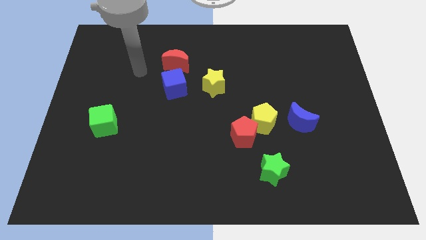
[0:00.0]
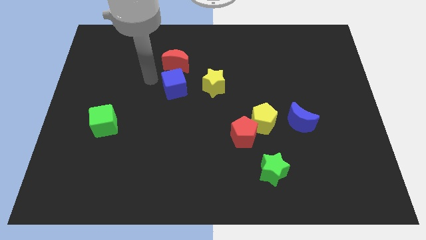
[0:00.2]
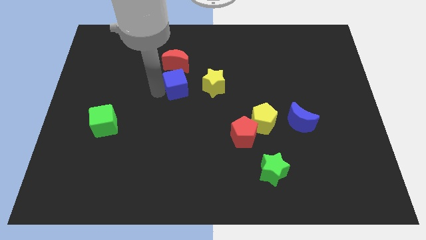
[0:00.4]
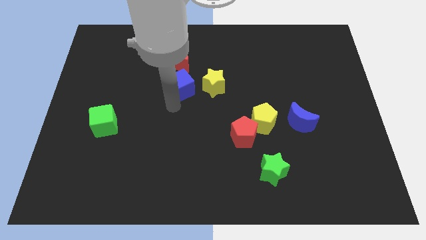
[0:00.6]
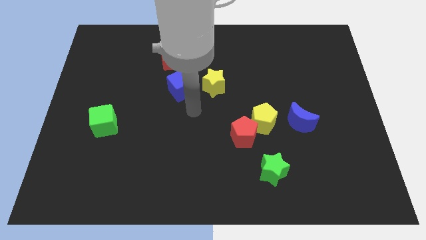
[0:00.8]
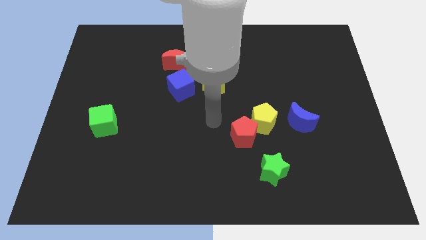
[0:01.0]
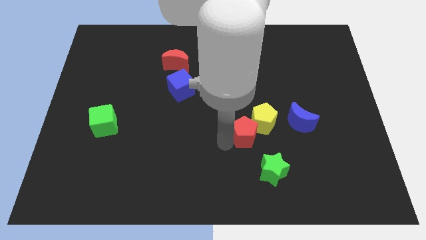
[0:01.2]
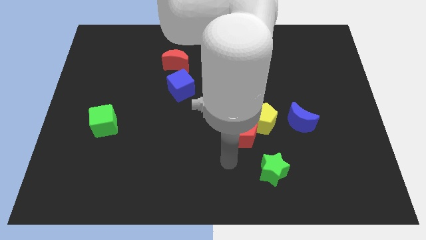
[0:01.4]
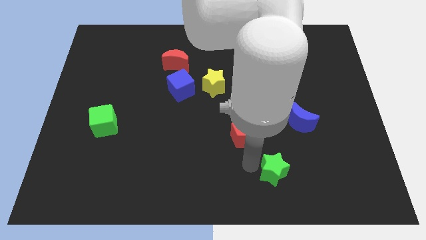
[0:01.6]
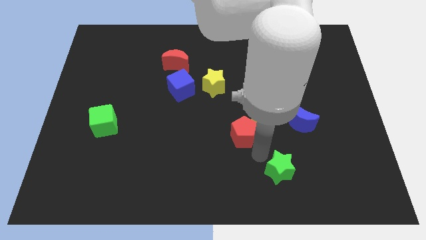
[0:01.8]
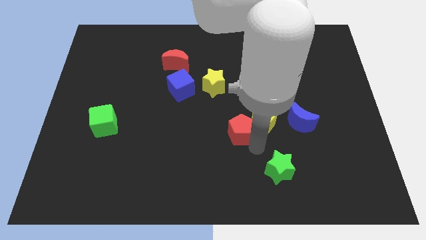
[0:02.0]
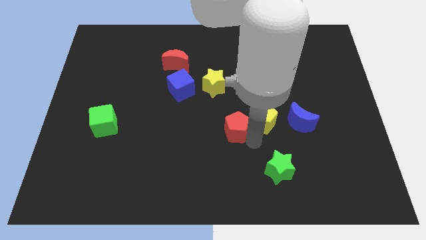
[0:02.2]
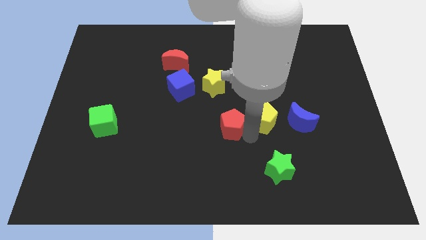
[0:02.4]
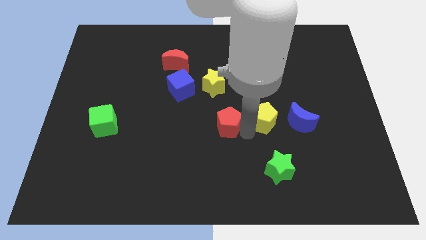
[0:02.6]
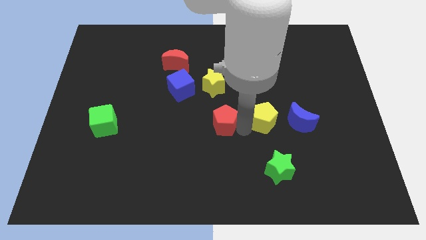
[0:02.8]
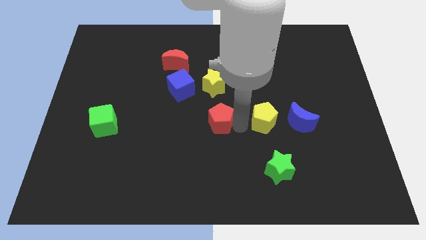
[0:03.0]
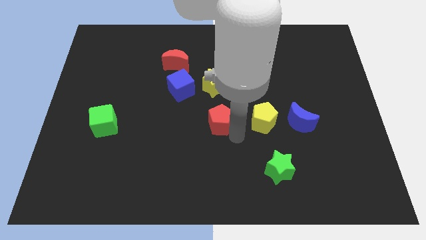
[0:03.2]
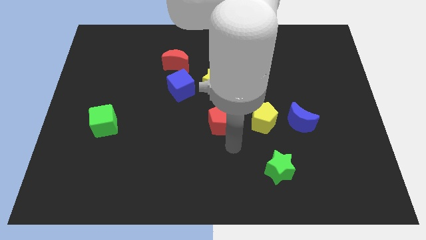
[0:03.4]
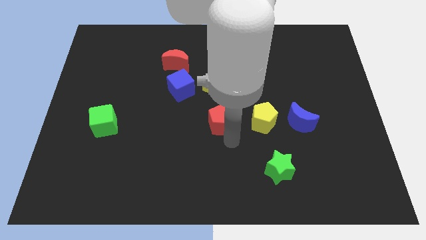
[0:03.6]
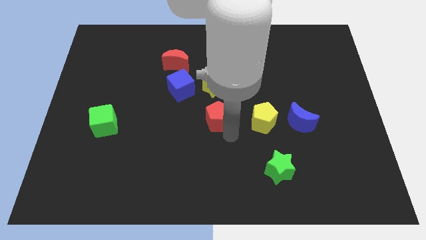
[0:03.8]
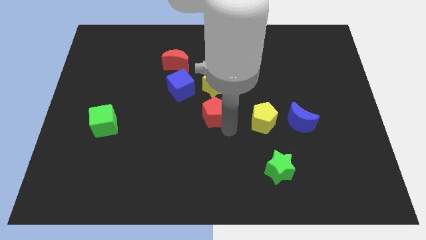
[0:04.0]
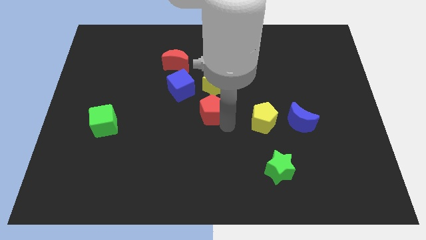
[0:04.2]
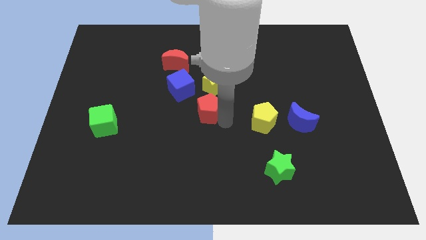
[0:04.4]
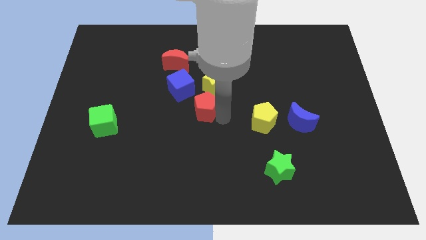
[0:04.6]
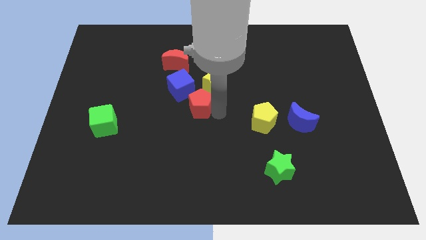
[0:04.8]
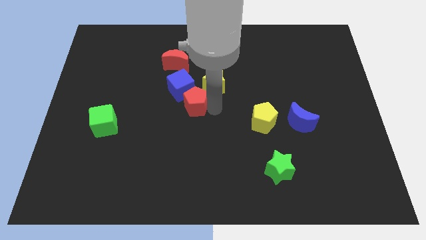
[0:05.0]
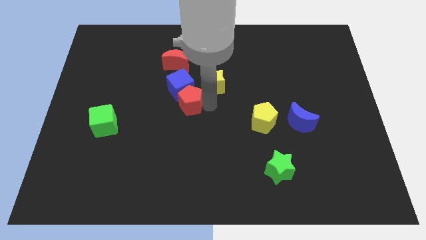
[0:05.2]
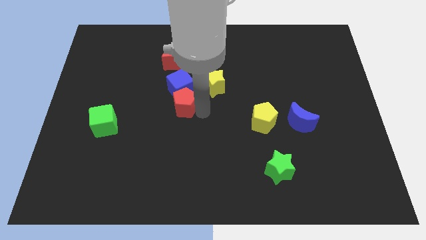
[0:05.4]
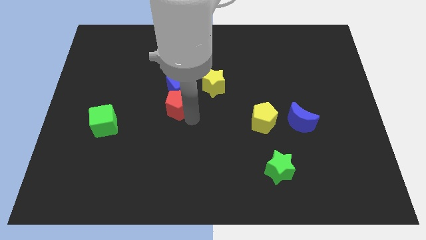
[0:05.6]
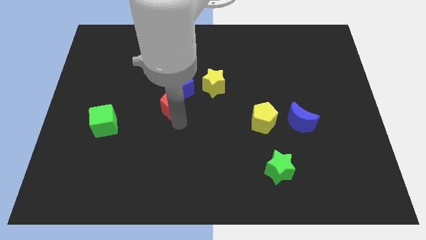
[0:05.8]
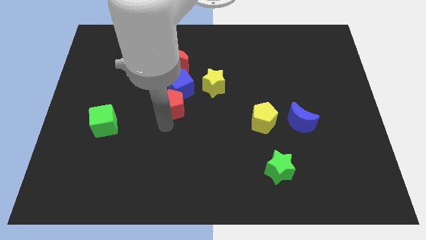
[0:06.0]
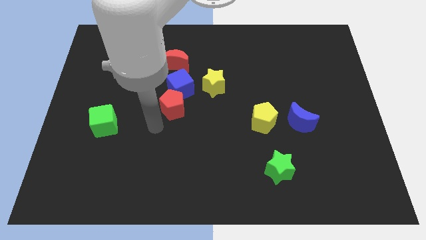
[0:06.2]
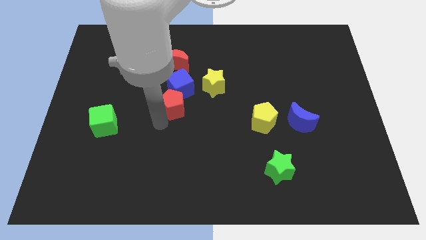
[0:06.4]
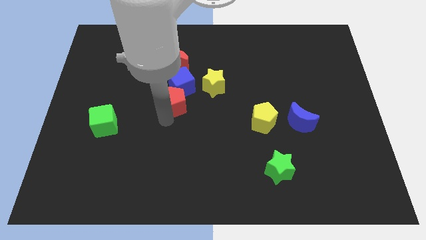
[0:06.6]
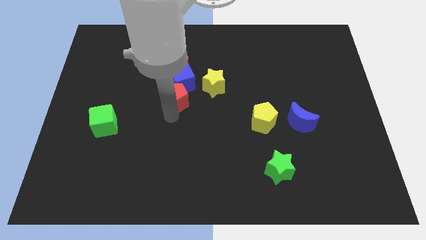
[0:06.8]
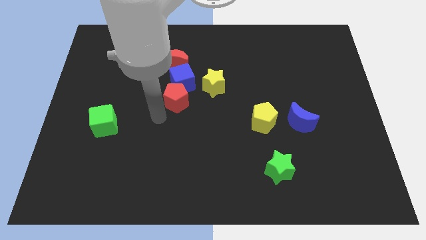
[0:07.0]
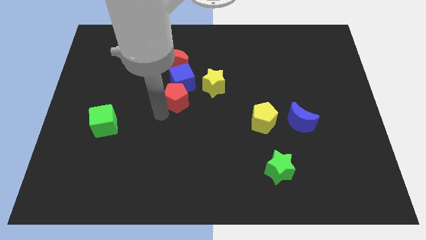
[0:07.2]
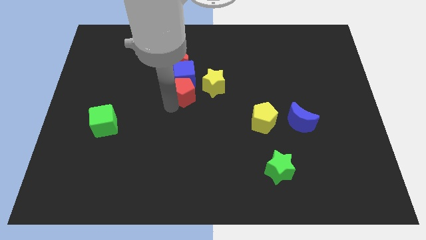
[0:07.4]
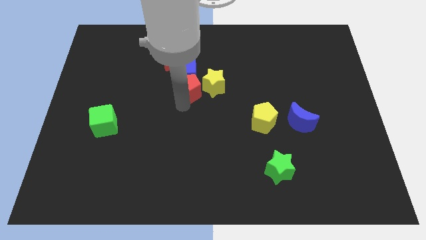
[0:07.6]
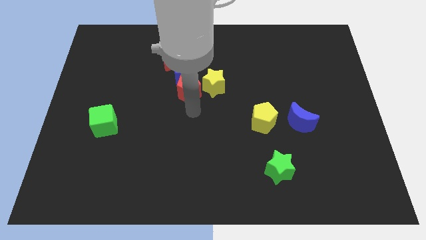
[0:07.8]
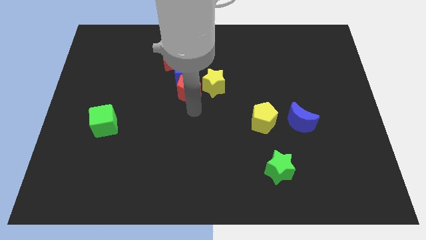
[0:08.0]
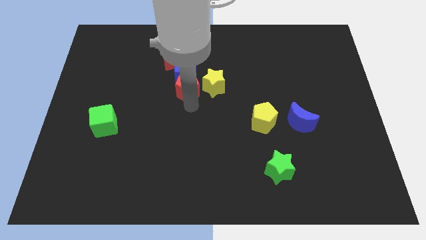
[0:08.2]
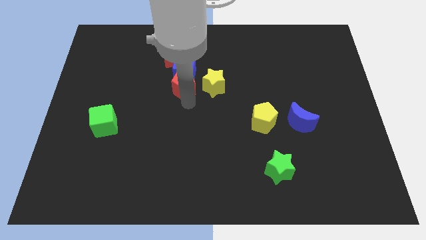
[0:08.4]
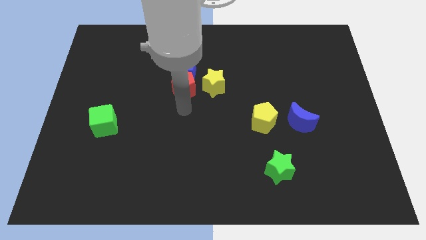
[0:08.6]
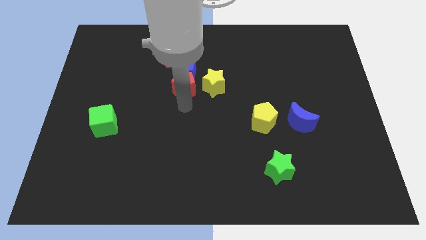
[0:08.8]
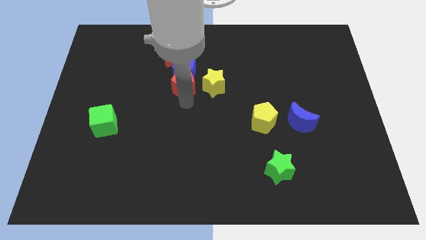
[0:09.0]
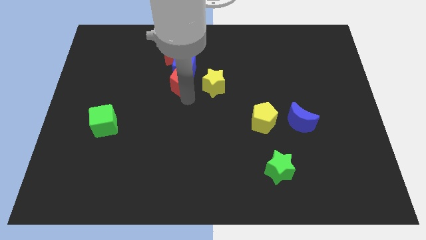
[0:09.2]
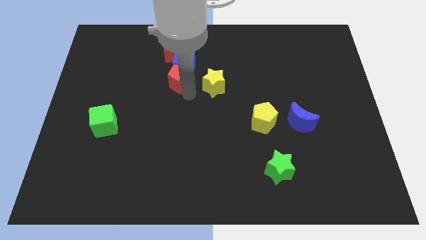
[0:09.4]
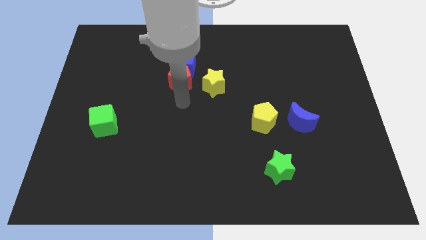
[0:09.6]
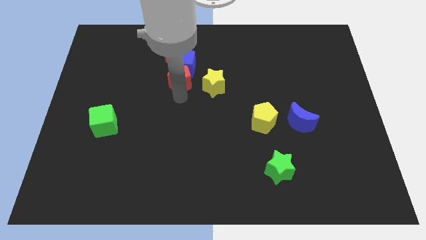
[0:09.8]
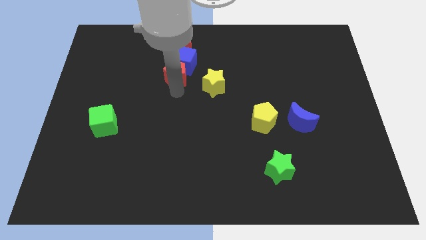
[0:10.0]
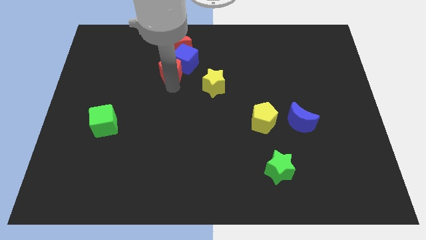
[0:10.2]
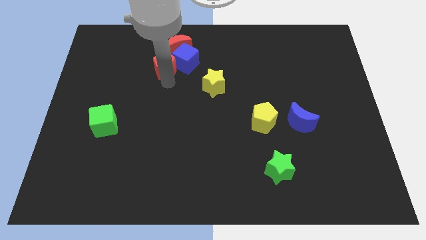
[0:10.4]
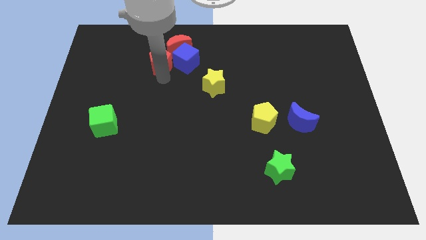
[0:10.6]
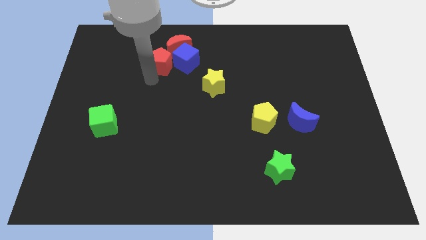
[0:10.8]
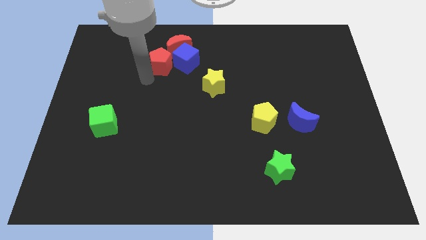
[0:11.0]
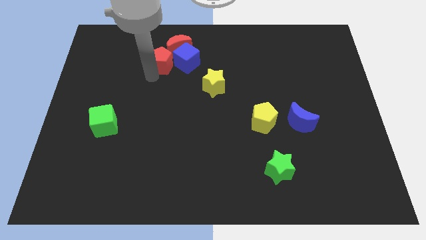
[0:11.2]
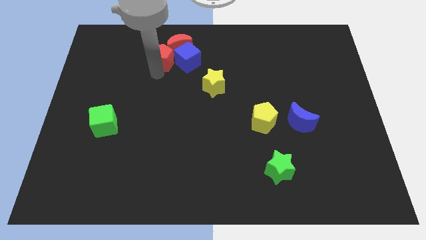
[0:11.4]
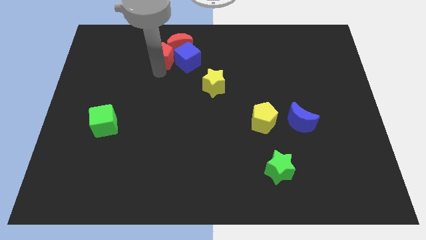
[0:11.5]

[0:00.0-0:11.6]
move the red pentagon next to the red moon

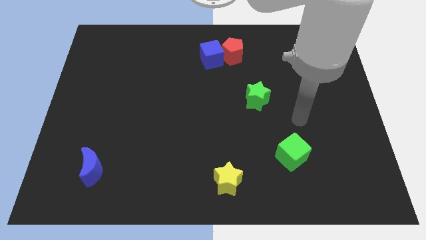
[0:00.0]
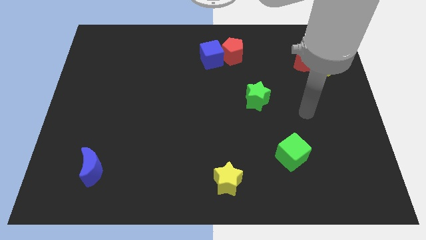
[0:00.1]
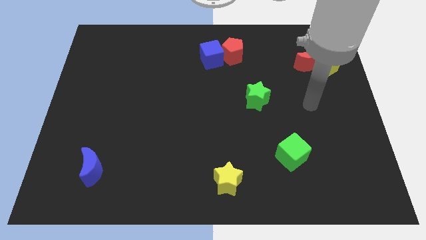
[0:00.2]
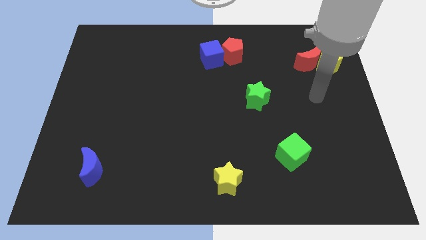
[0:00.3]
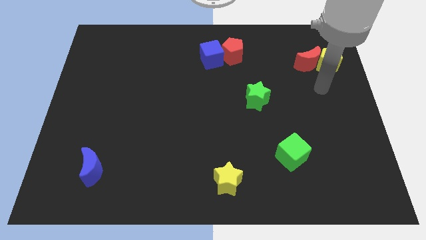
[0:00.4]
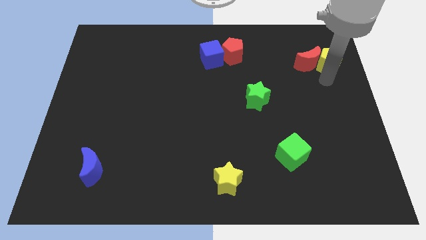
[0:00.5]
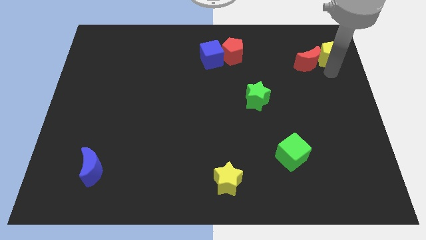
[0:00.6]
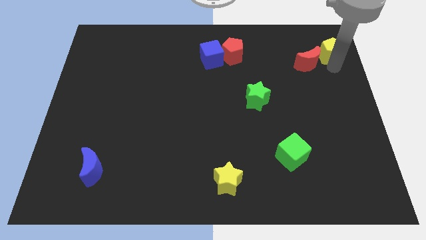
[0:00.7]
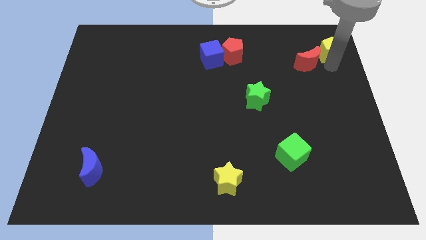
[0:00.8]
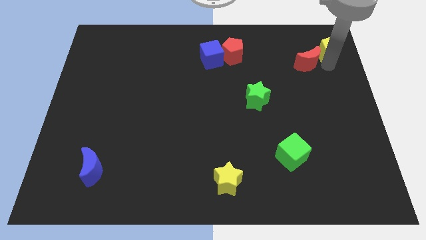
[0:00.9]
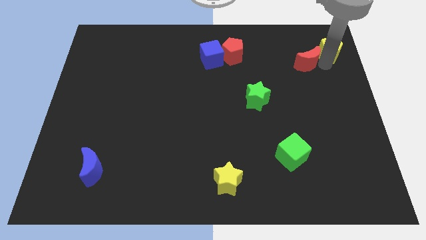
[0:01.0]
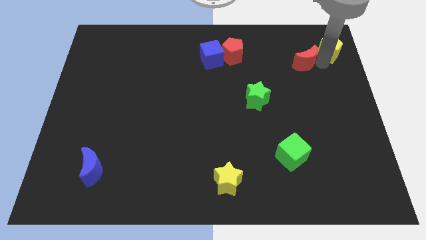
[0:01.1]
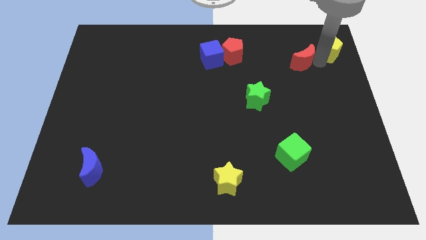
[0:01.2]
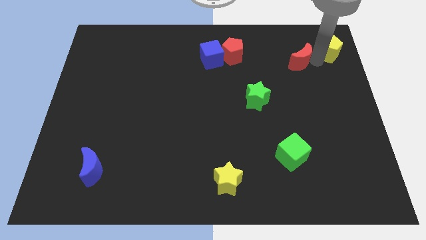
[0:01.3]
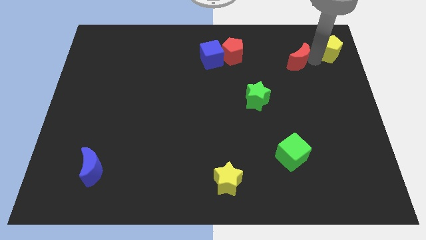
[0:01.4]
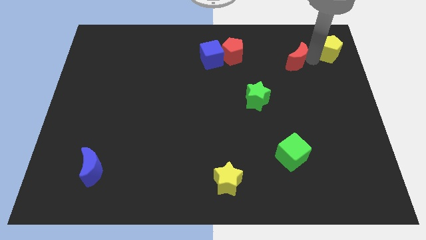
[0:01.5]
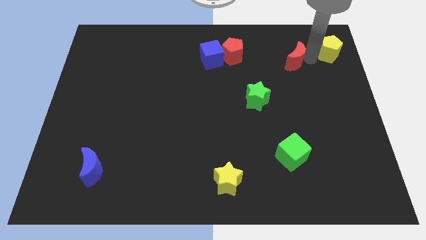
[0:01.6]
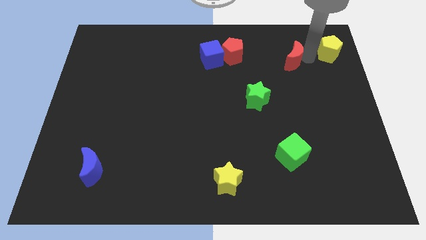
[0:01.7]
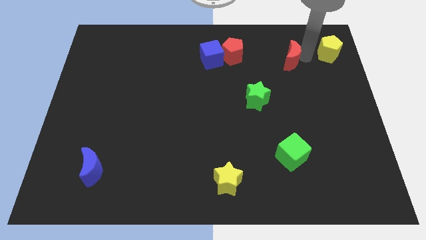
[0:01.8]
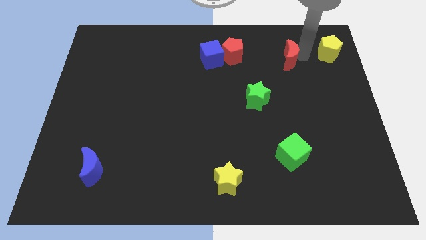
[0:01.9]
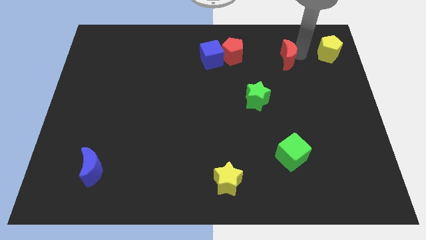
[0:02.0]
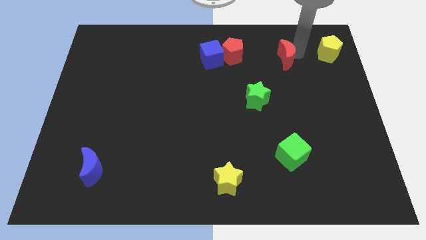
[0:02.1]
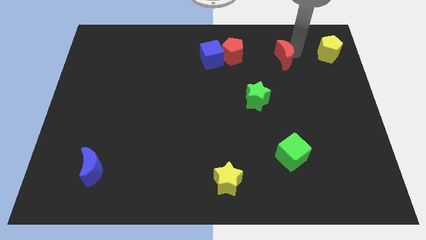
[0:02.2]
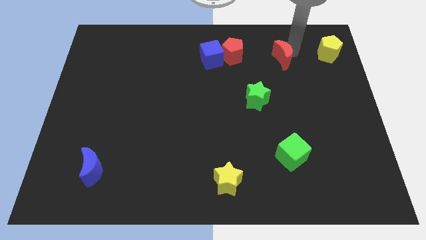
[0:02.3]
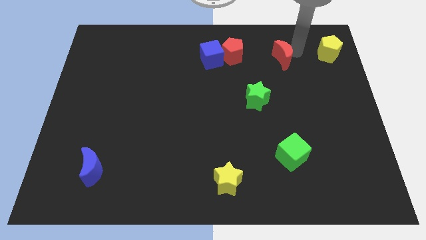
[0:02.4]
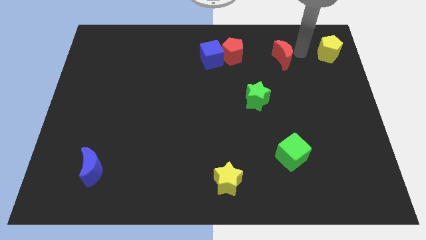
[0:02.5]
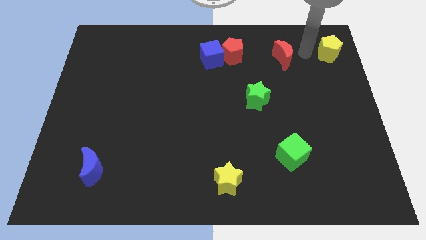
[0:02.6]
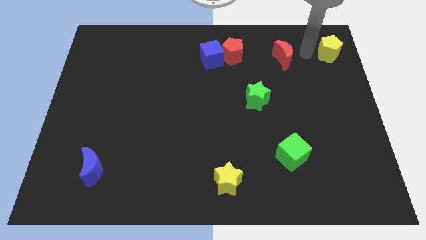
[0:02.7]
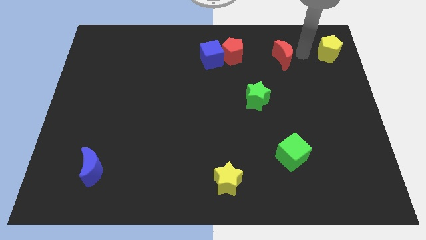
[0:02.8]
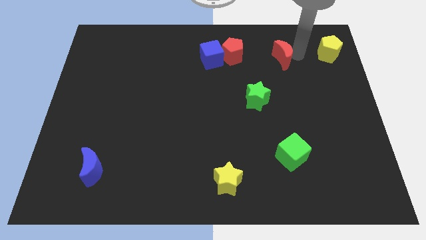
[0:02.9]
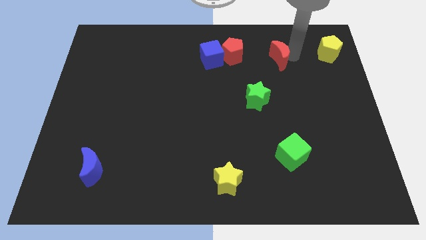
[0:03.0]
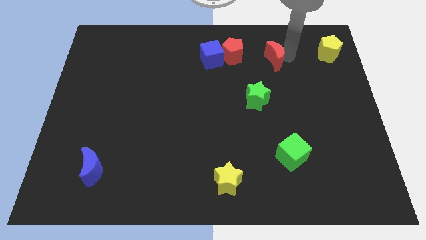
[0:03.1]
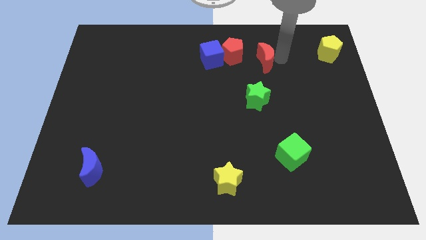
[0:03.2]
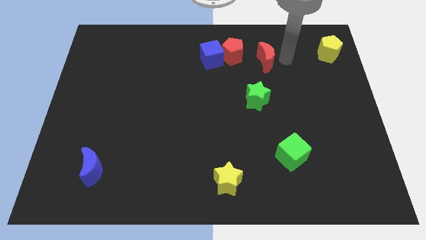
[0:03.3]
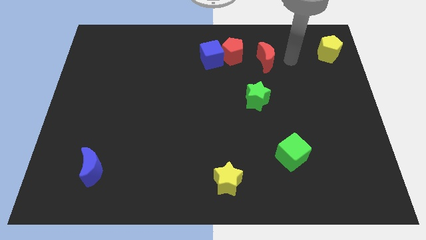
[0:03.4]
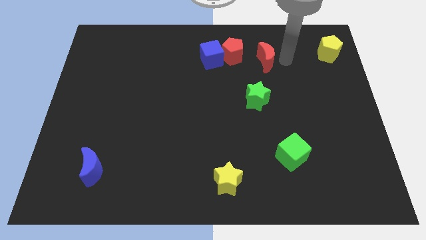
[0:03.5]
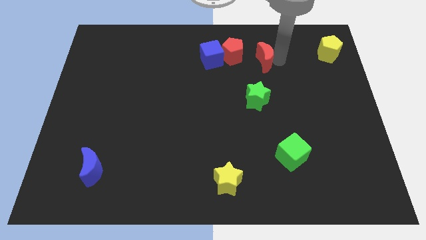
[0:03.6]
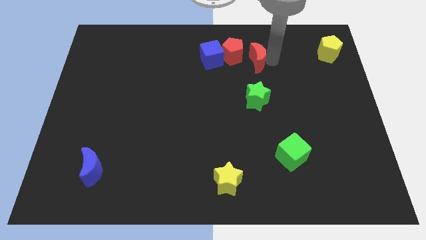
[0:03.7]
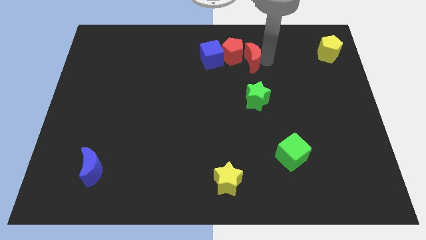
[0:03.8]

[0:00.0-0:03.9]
move the red moon towards the red pentagon
